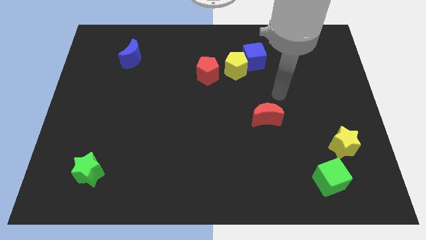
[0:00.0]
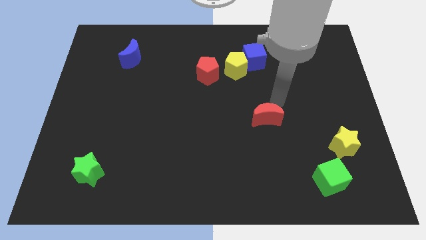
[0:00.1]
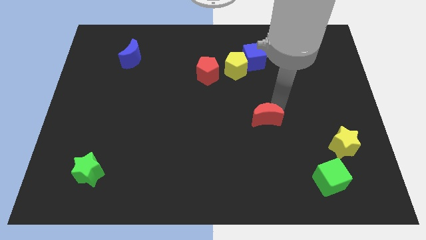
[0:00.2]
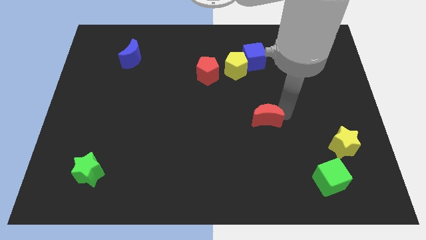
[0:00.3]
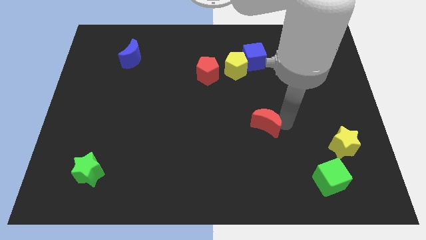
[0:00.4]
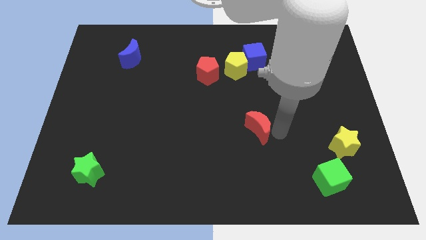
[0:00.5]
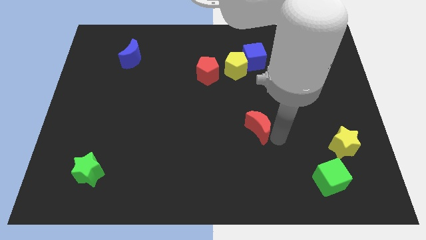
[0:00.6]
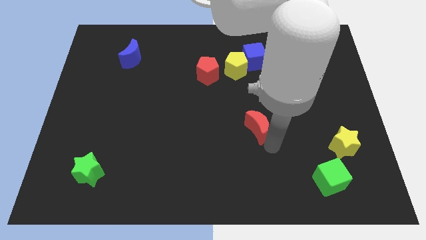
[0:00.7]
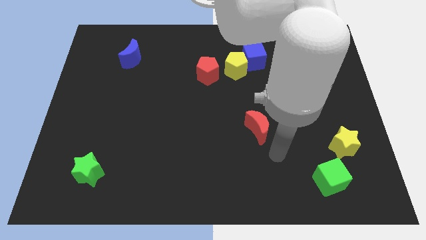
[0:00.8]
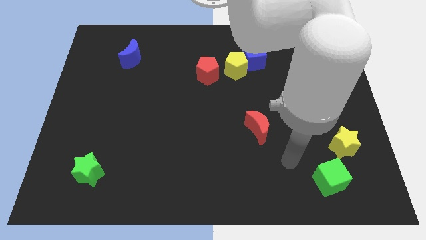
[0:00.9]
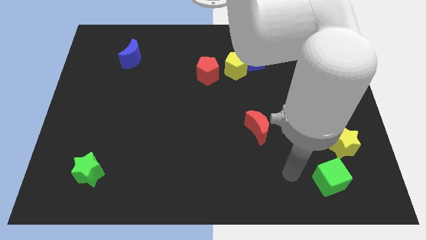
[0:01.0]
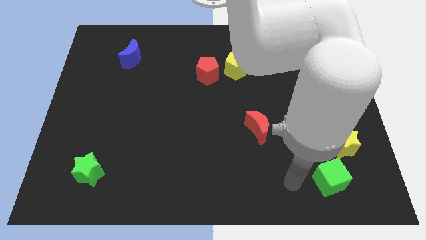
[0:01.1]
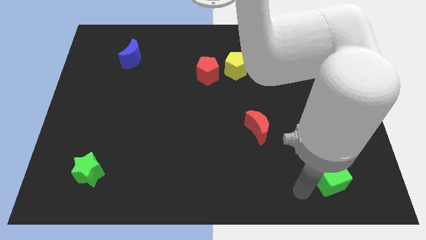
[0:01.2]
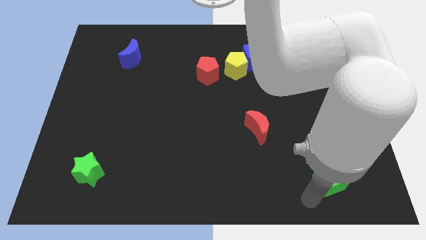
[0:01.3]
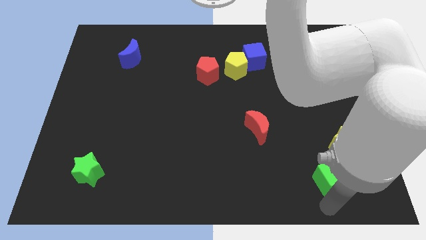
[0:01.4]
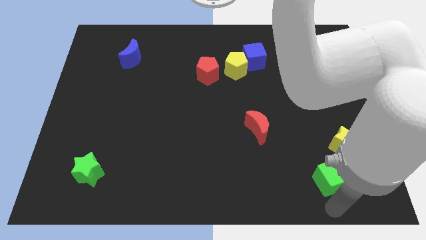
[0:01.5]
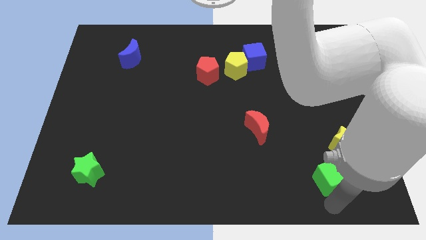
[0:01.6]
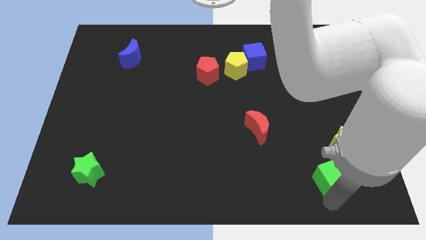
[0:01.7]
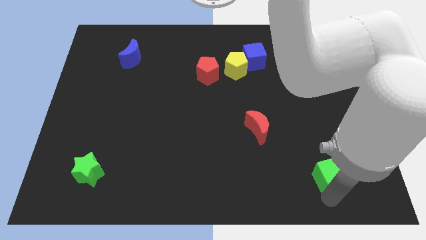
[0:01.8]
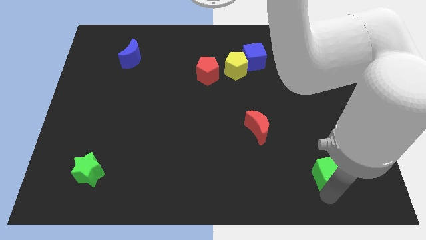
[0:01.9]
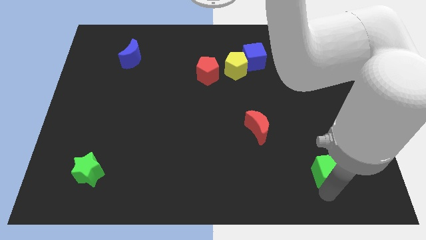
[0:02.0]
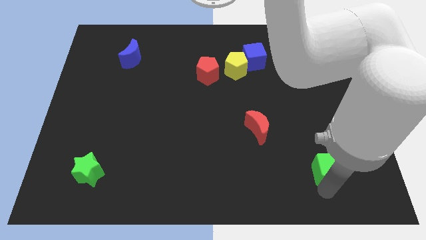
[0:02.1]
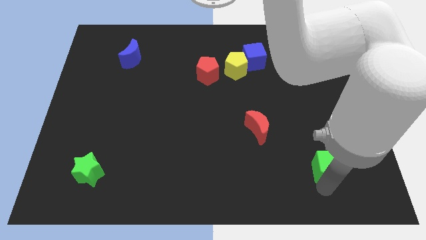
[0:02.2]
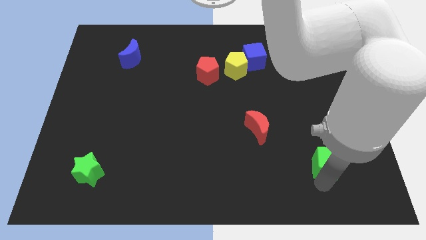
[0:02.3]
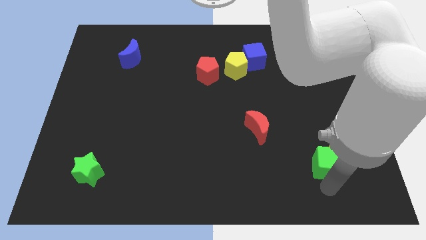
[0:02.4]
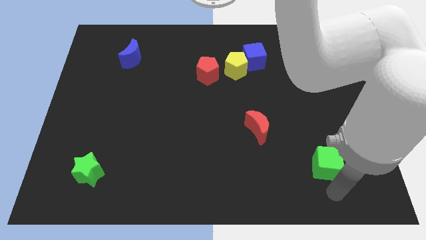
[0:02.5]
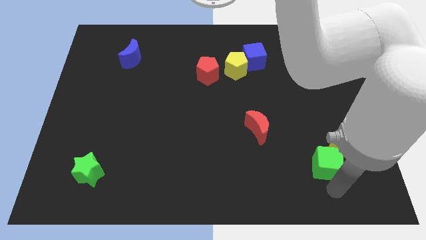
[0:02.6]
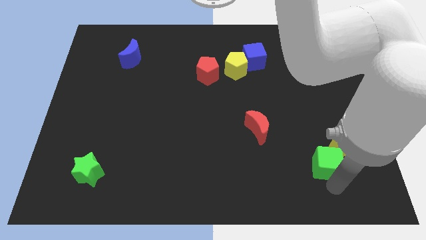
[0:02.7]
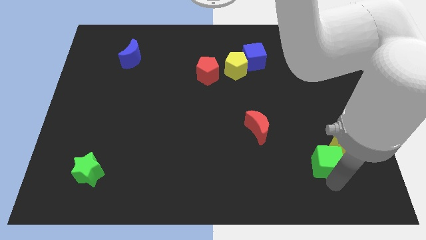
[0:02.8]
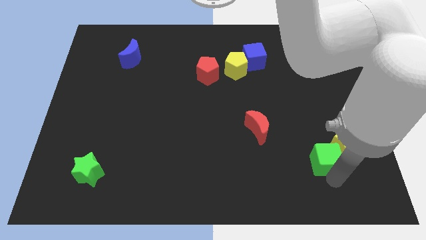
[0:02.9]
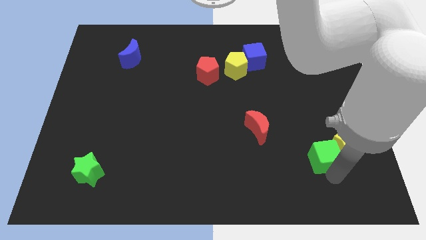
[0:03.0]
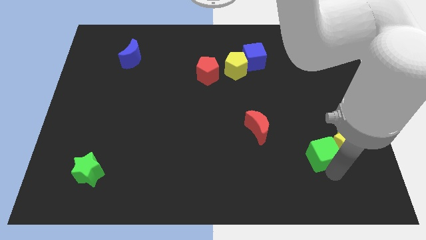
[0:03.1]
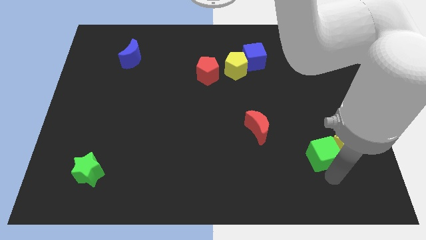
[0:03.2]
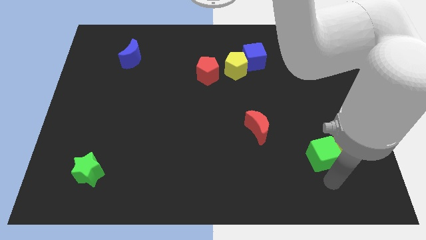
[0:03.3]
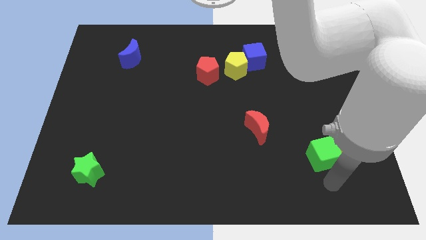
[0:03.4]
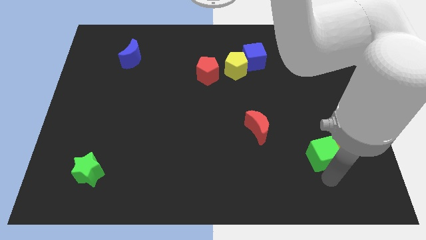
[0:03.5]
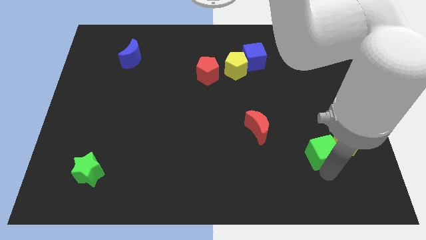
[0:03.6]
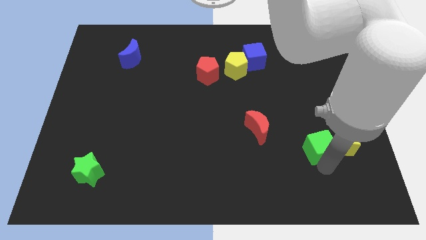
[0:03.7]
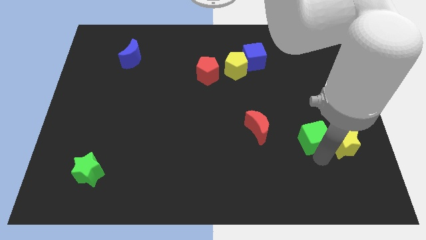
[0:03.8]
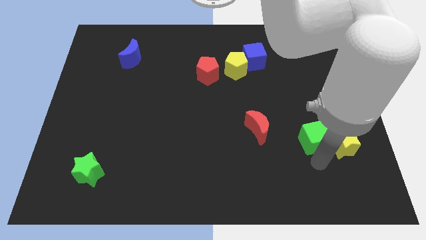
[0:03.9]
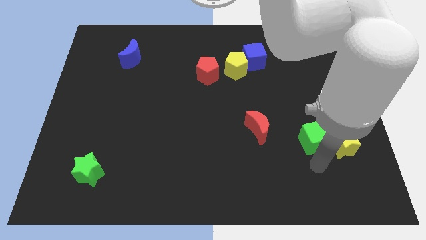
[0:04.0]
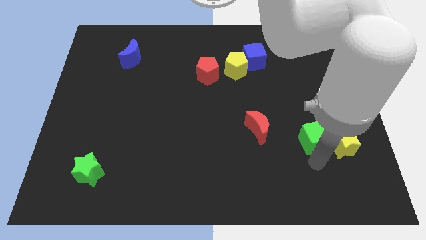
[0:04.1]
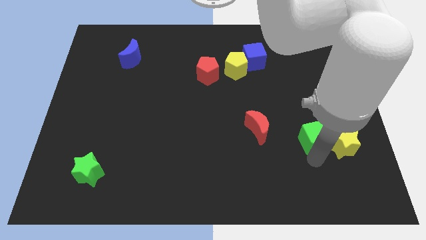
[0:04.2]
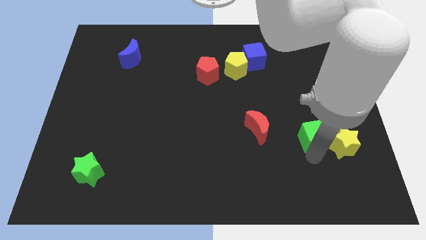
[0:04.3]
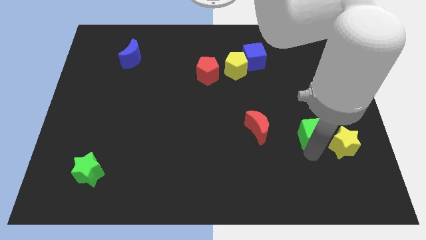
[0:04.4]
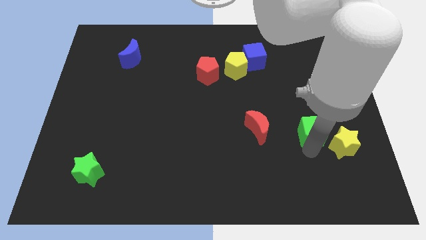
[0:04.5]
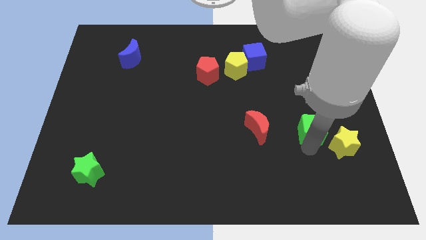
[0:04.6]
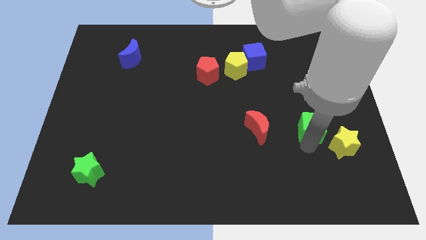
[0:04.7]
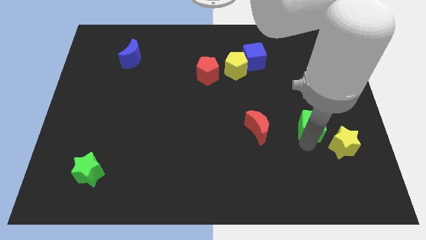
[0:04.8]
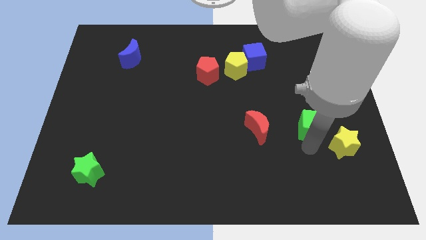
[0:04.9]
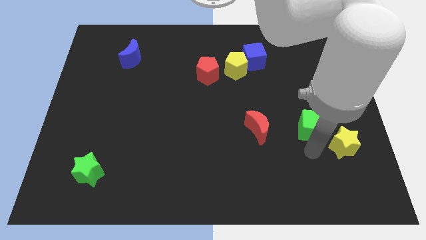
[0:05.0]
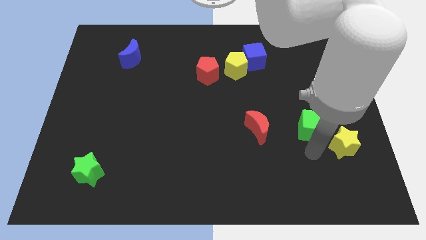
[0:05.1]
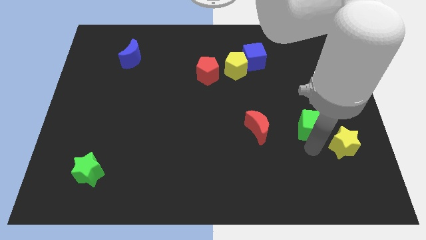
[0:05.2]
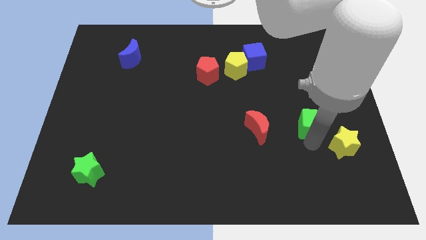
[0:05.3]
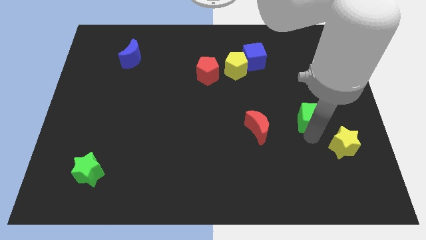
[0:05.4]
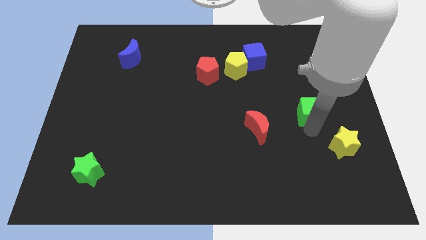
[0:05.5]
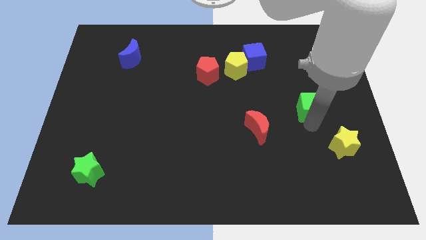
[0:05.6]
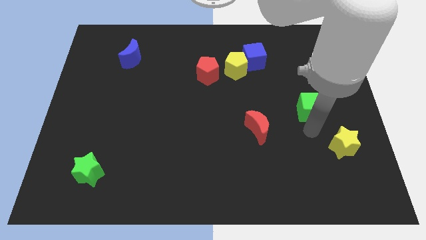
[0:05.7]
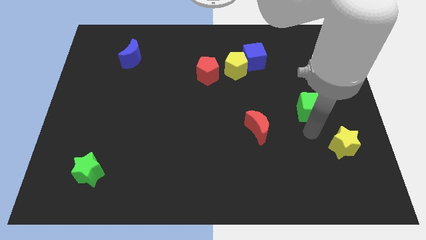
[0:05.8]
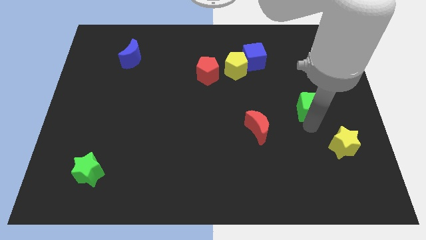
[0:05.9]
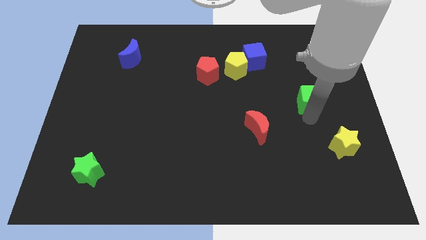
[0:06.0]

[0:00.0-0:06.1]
push the green cube upwards

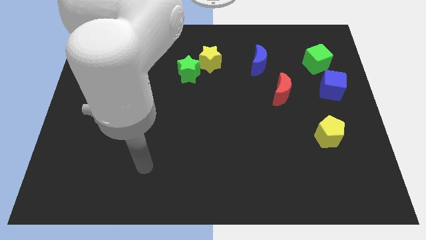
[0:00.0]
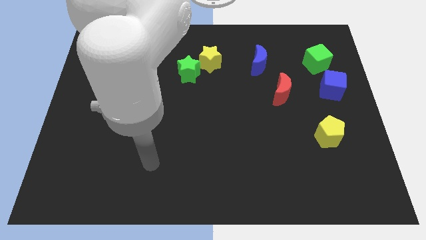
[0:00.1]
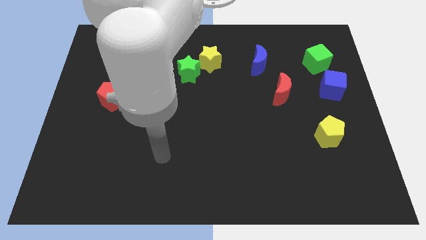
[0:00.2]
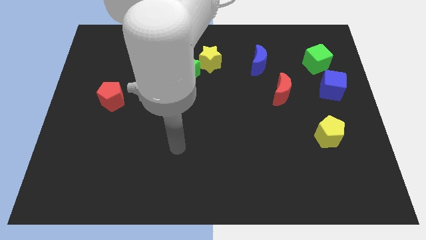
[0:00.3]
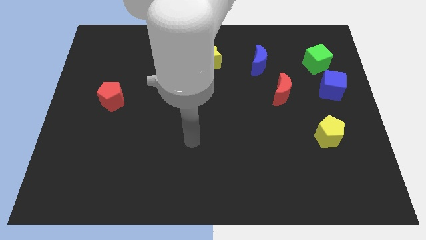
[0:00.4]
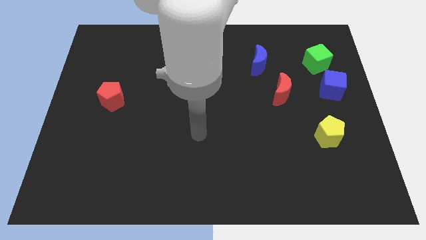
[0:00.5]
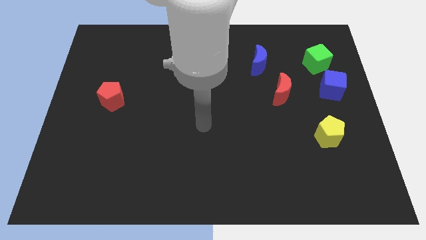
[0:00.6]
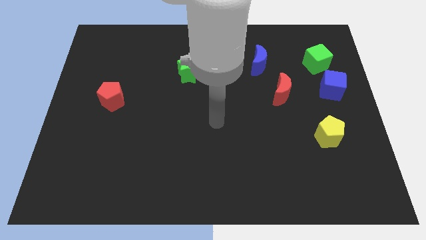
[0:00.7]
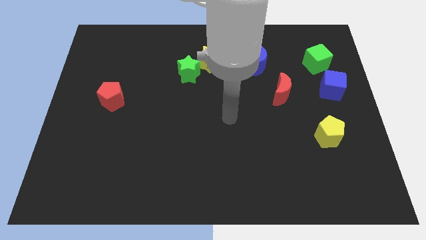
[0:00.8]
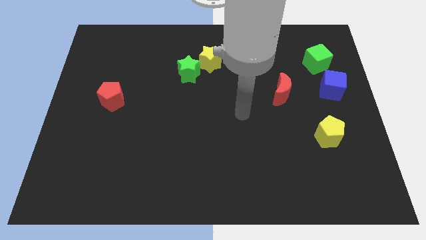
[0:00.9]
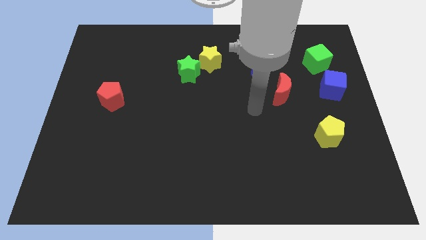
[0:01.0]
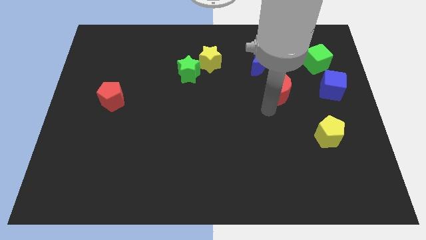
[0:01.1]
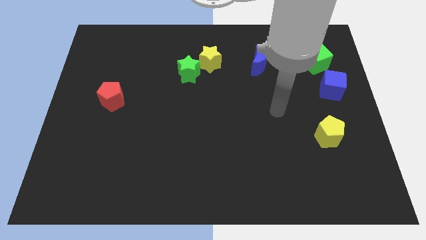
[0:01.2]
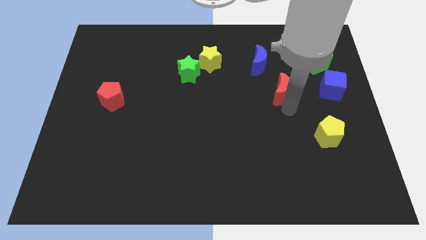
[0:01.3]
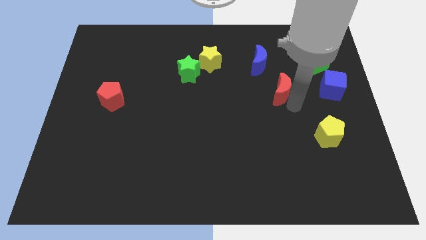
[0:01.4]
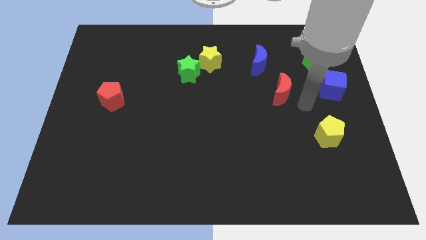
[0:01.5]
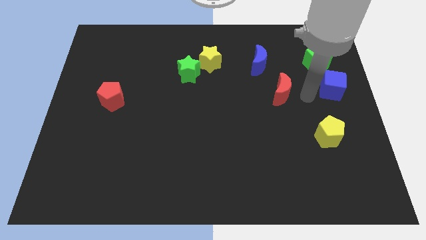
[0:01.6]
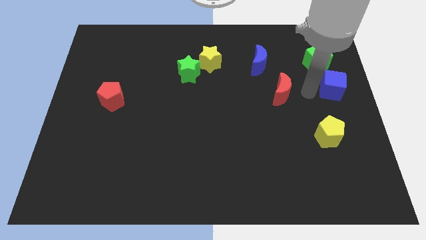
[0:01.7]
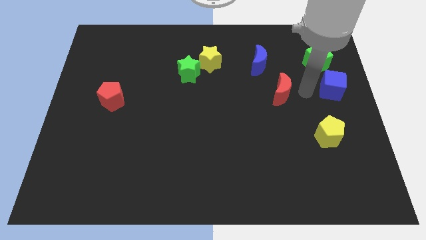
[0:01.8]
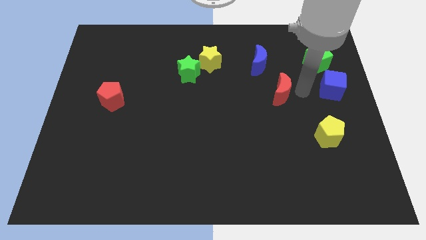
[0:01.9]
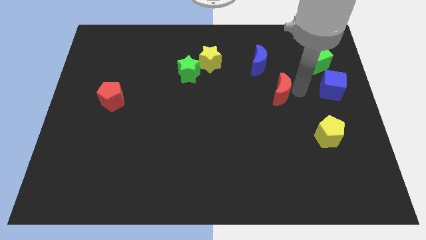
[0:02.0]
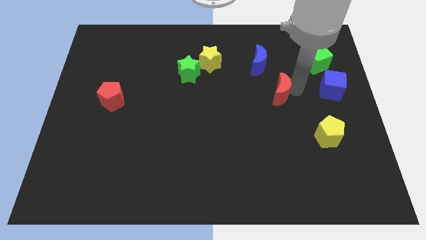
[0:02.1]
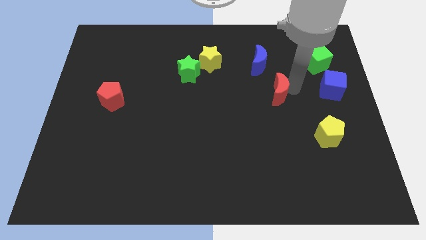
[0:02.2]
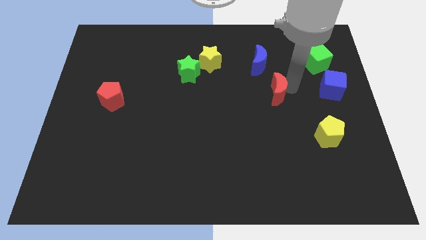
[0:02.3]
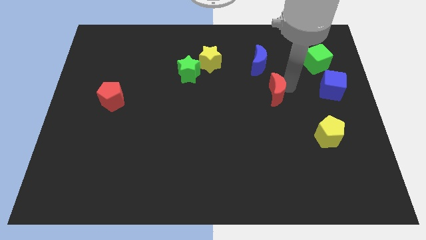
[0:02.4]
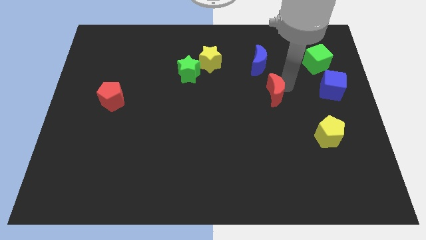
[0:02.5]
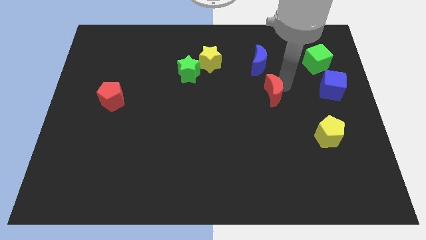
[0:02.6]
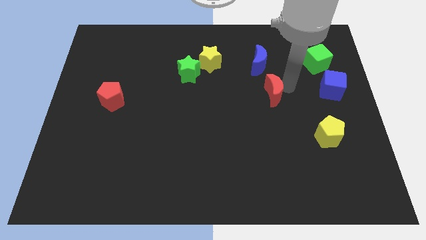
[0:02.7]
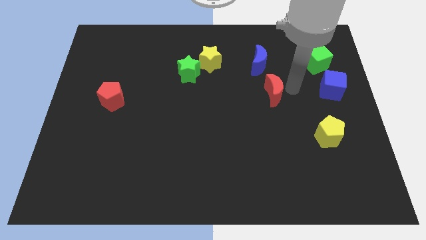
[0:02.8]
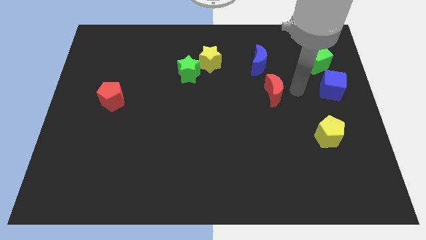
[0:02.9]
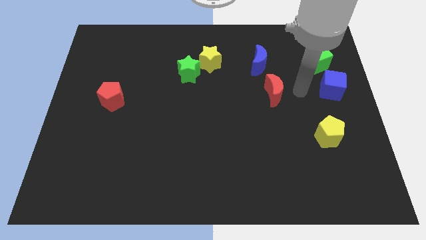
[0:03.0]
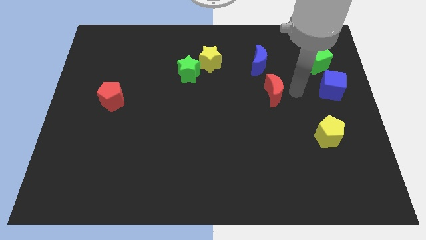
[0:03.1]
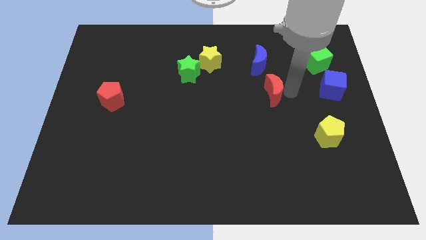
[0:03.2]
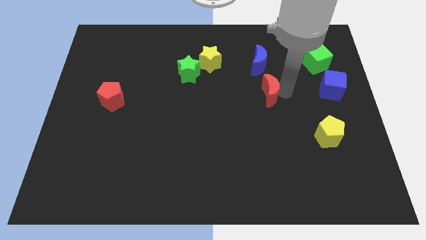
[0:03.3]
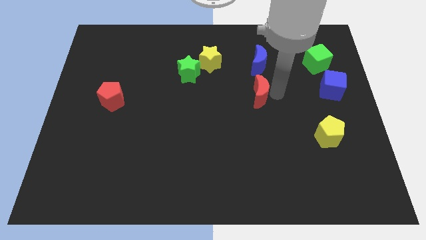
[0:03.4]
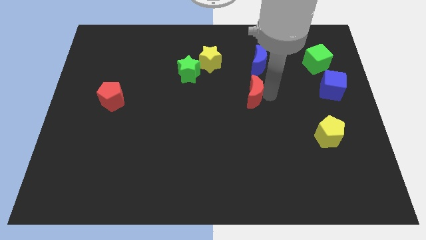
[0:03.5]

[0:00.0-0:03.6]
push the red moon to the left a little
